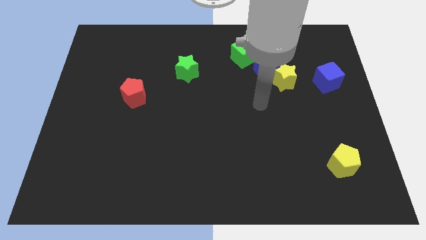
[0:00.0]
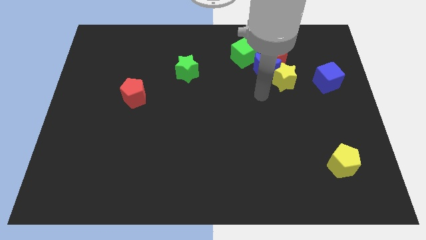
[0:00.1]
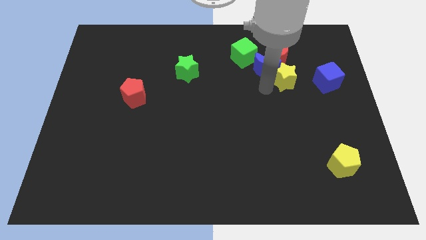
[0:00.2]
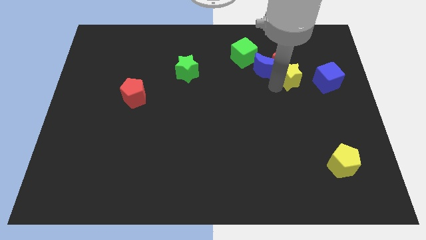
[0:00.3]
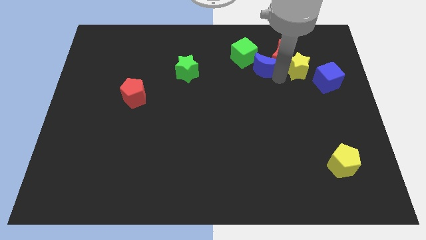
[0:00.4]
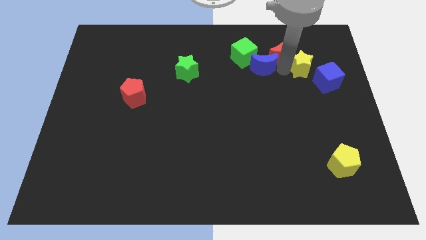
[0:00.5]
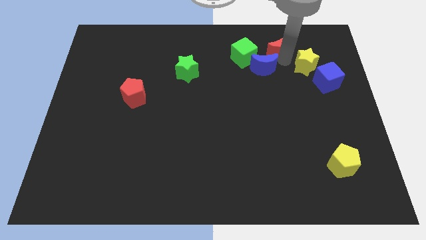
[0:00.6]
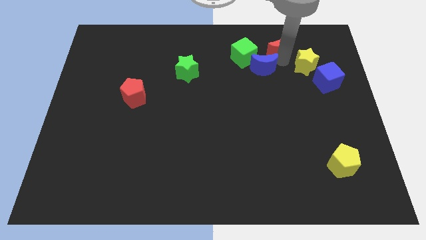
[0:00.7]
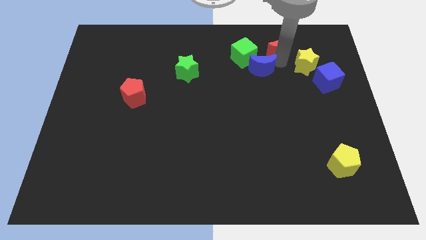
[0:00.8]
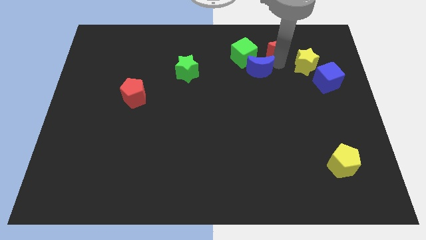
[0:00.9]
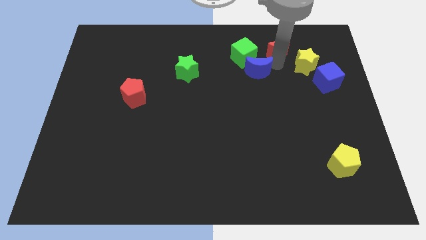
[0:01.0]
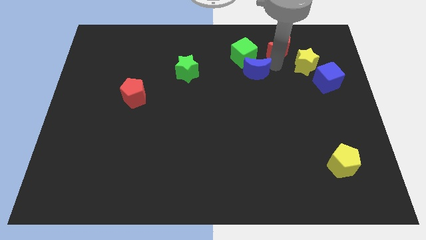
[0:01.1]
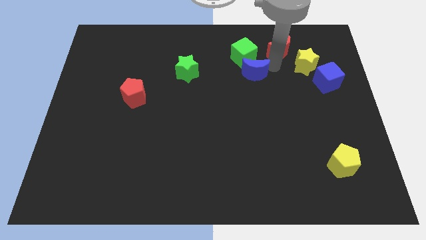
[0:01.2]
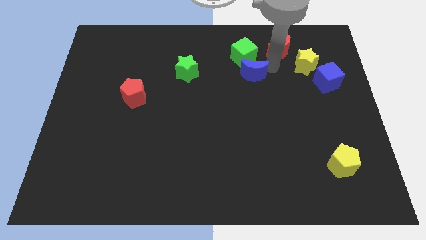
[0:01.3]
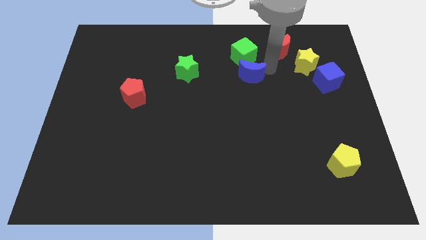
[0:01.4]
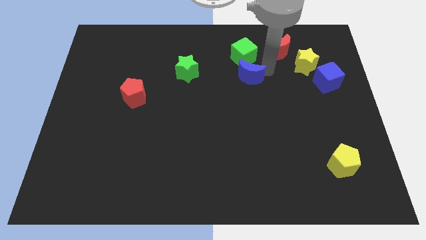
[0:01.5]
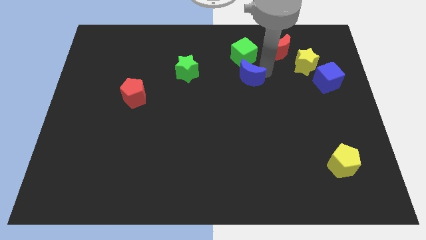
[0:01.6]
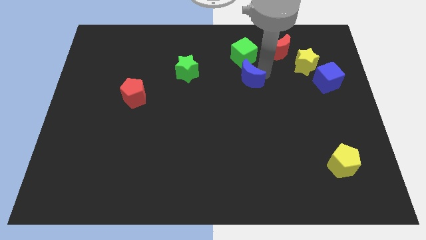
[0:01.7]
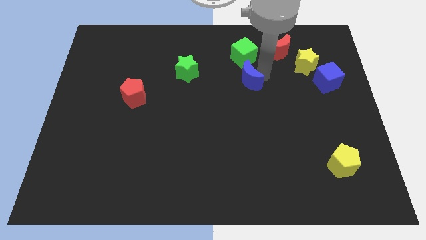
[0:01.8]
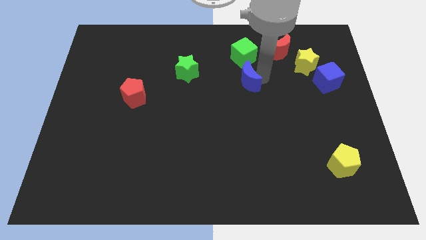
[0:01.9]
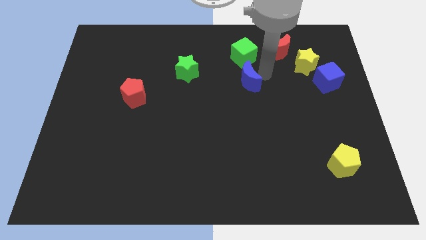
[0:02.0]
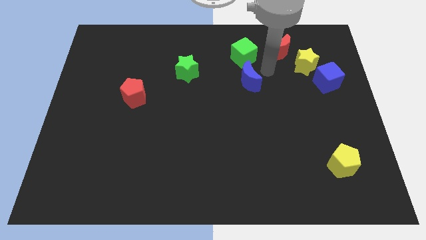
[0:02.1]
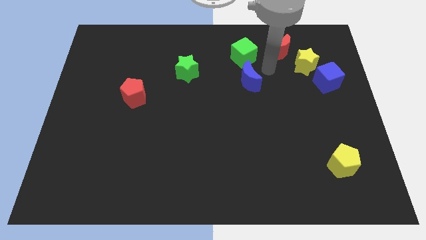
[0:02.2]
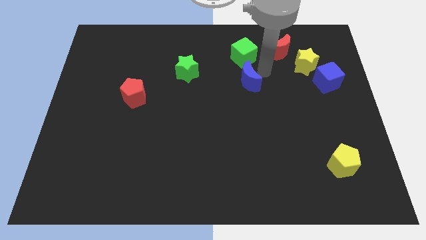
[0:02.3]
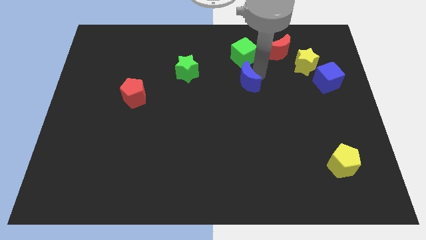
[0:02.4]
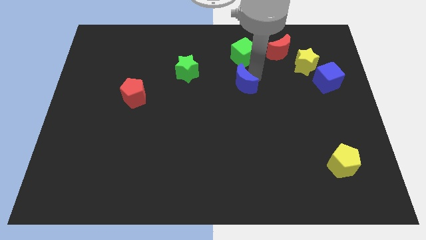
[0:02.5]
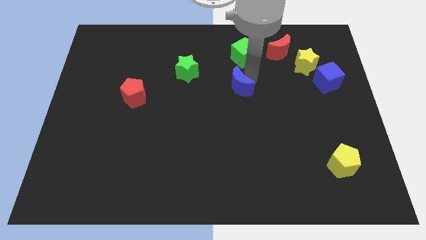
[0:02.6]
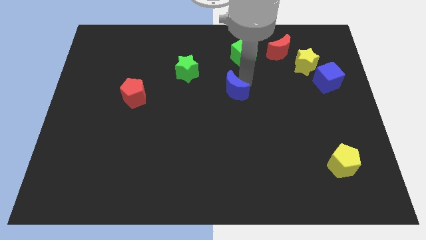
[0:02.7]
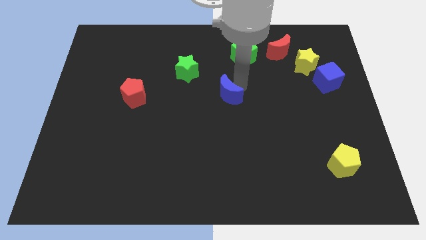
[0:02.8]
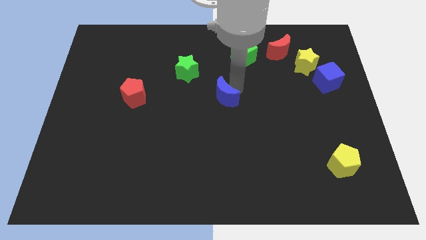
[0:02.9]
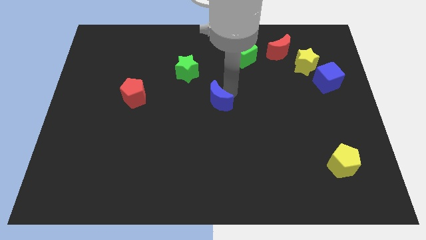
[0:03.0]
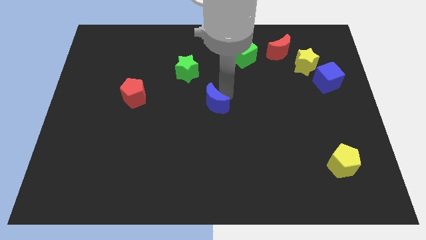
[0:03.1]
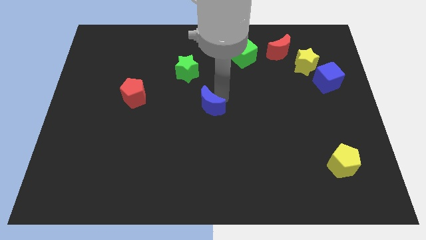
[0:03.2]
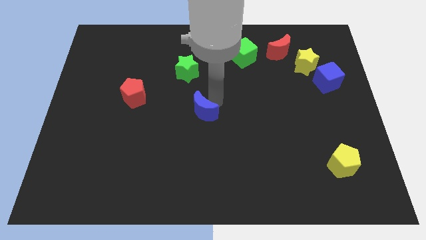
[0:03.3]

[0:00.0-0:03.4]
push the blue moon down and then left

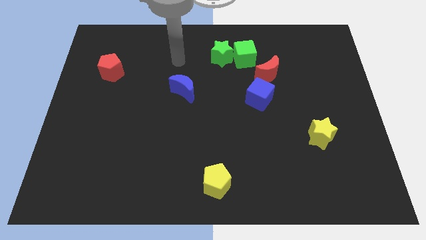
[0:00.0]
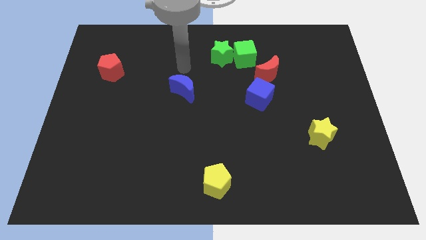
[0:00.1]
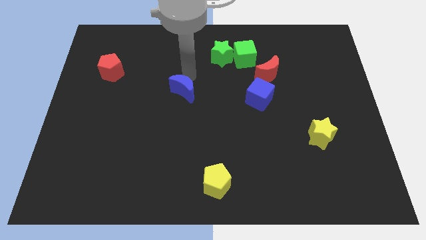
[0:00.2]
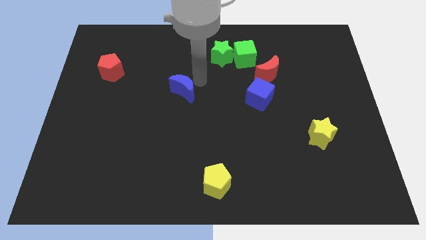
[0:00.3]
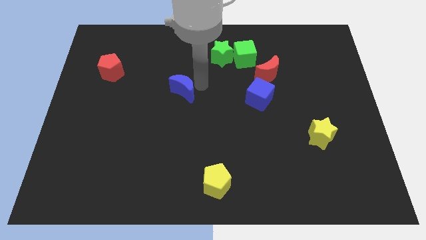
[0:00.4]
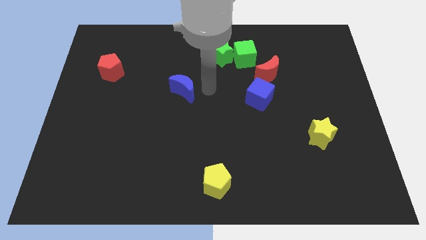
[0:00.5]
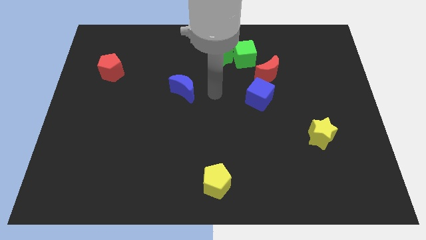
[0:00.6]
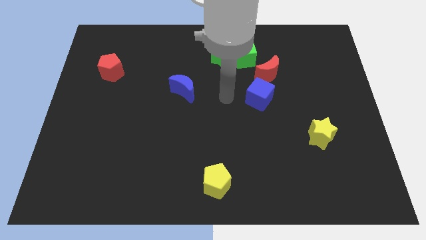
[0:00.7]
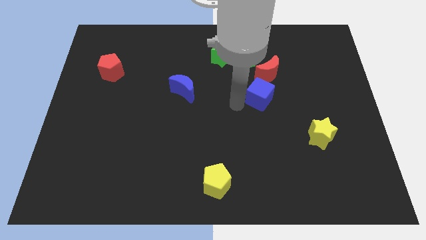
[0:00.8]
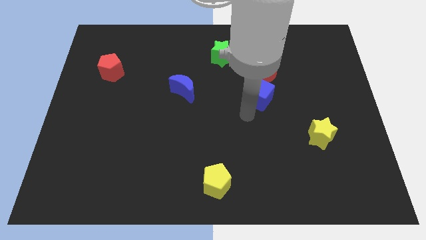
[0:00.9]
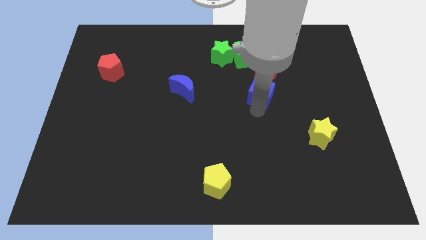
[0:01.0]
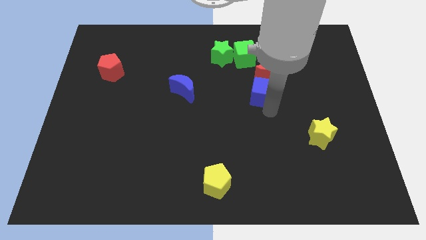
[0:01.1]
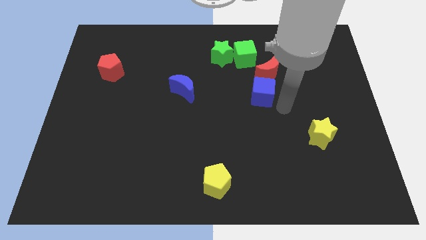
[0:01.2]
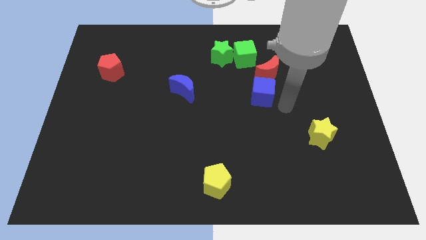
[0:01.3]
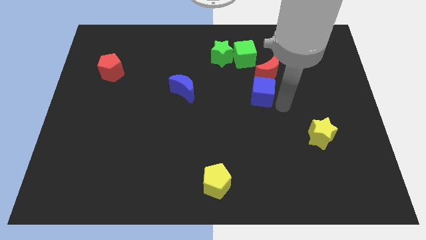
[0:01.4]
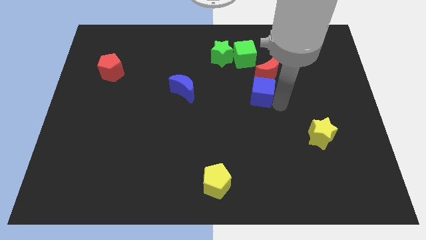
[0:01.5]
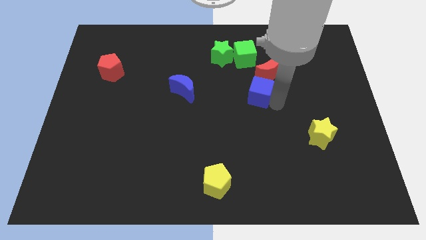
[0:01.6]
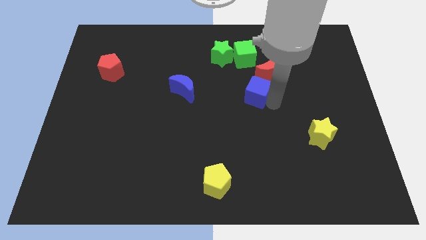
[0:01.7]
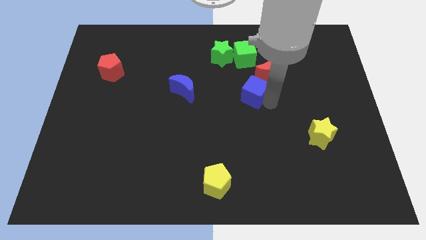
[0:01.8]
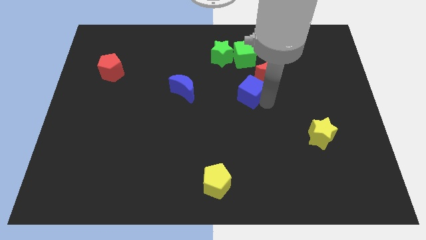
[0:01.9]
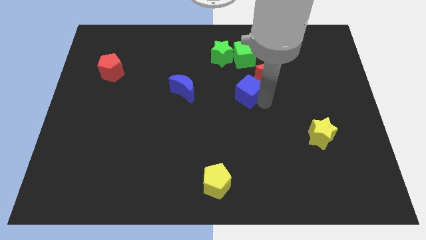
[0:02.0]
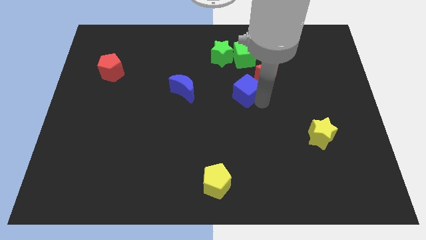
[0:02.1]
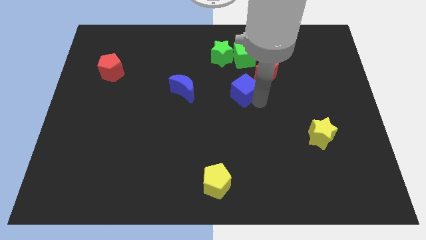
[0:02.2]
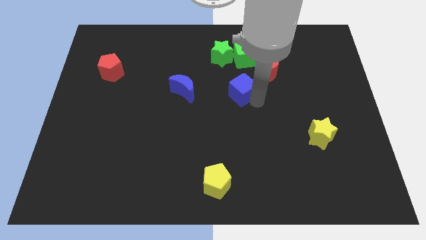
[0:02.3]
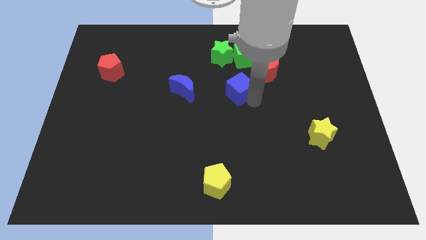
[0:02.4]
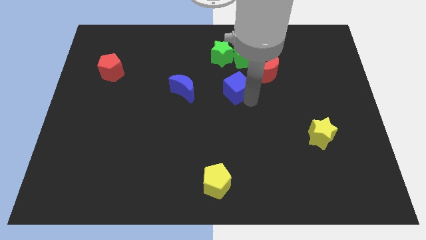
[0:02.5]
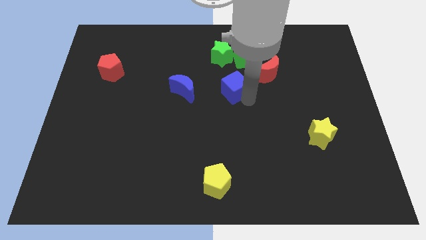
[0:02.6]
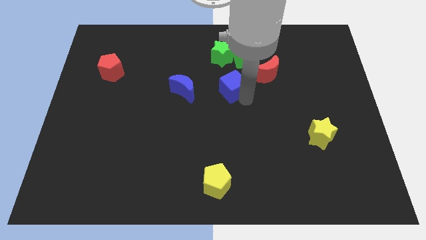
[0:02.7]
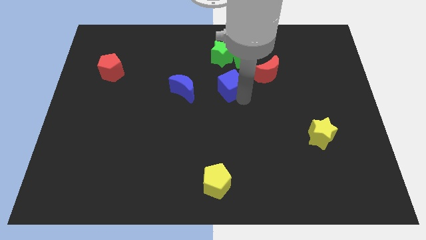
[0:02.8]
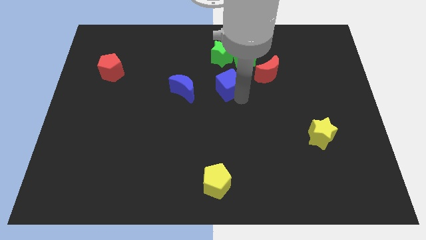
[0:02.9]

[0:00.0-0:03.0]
push the blue cube a bit upwards and then to the left

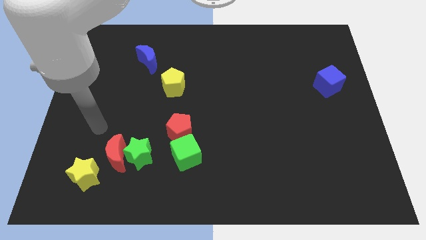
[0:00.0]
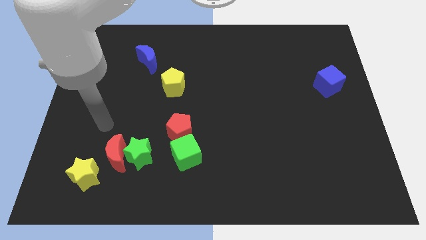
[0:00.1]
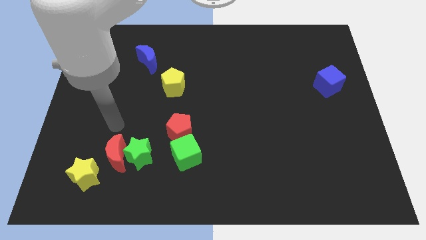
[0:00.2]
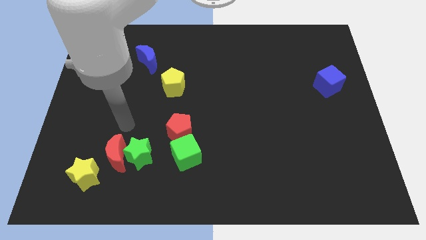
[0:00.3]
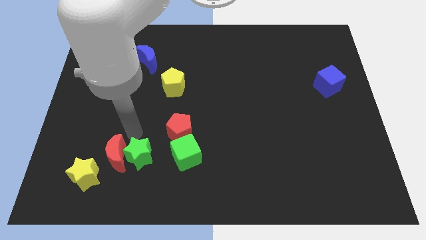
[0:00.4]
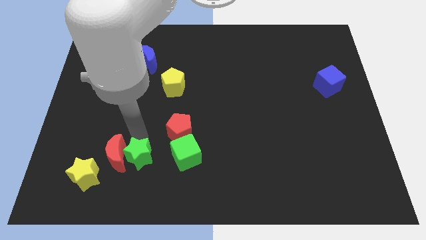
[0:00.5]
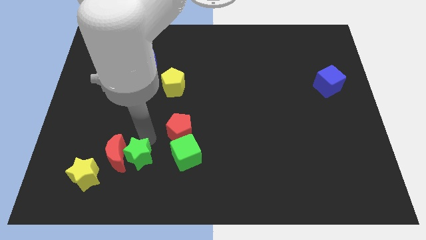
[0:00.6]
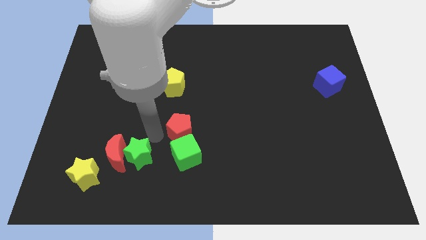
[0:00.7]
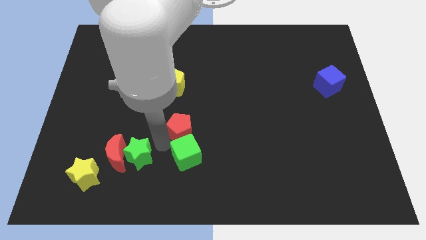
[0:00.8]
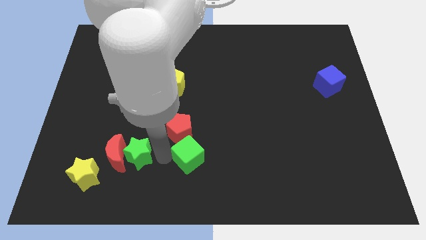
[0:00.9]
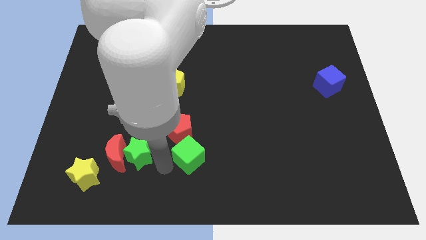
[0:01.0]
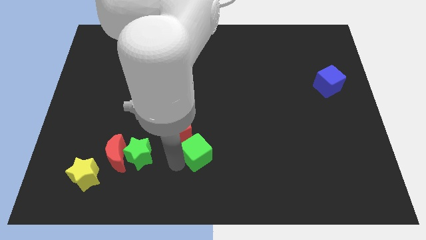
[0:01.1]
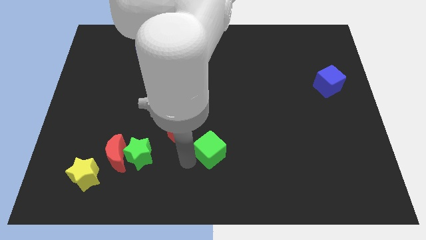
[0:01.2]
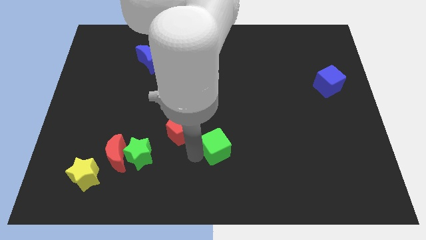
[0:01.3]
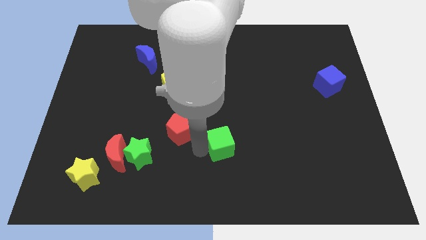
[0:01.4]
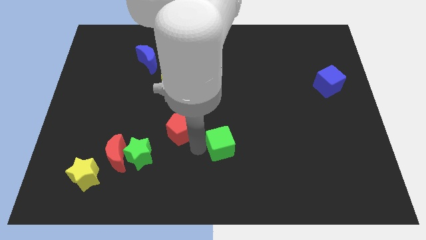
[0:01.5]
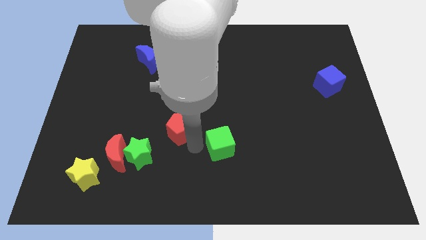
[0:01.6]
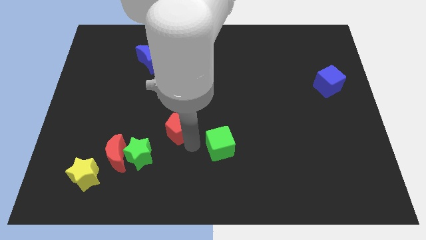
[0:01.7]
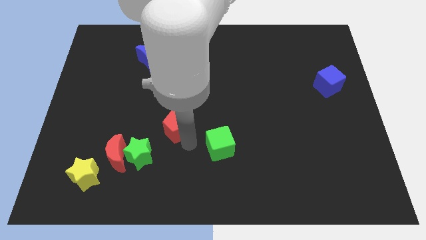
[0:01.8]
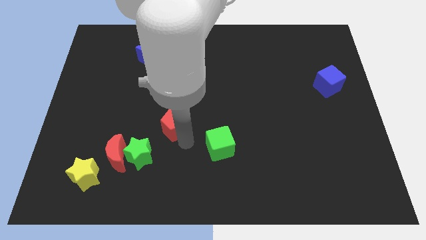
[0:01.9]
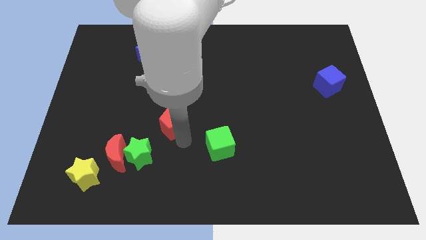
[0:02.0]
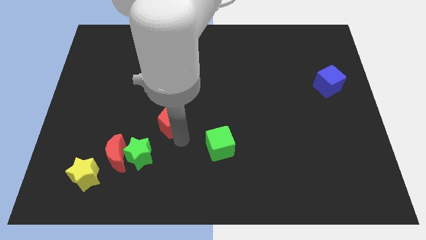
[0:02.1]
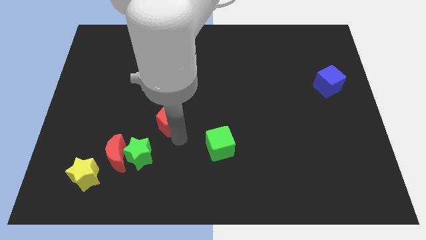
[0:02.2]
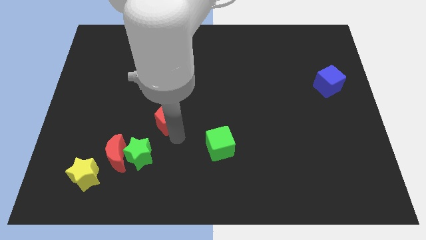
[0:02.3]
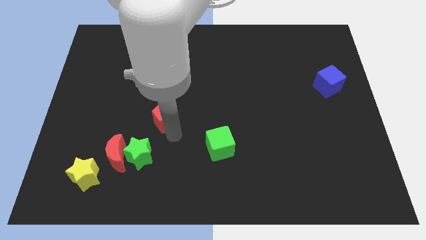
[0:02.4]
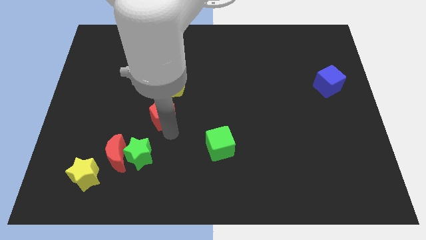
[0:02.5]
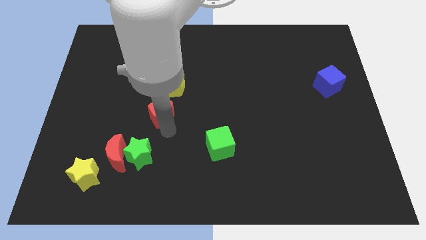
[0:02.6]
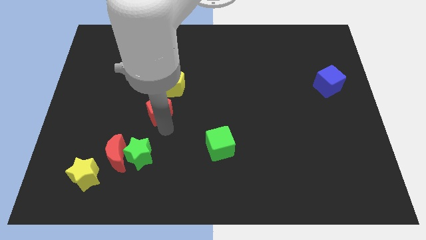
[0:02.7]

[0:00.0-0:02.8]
slightly slide the red pentagon up and then to the left
